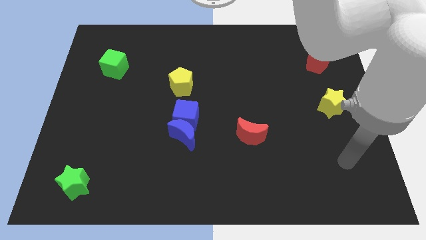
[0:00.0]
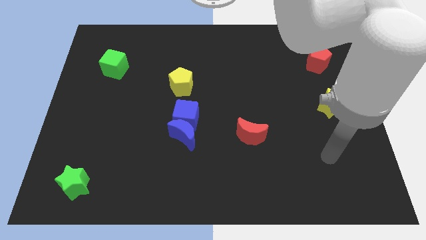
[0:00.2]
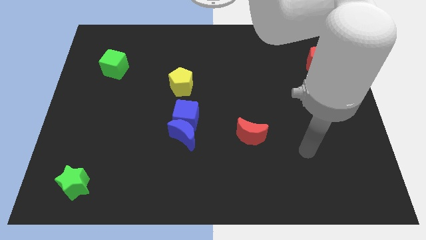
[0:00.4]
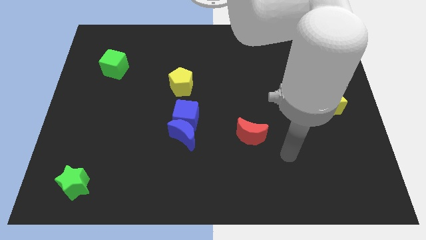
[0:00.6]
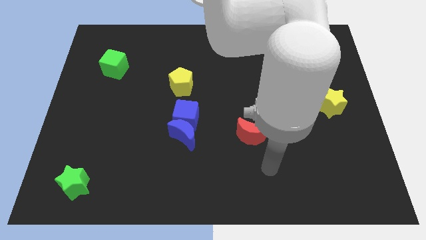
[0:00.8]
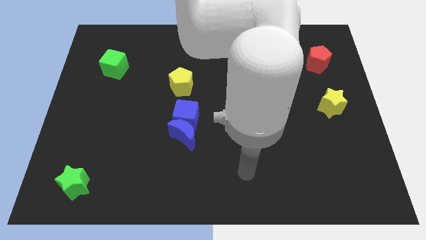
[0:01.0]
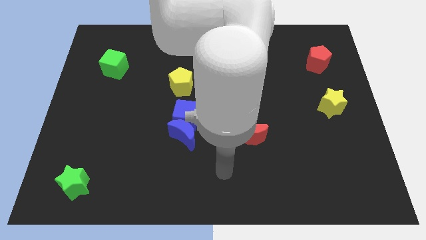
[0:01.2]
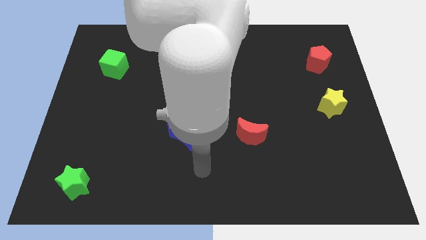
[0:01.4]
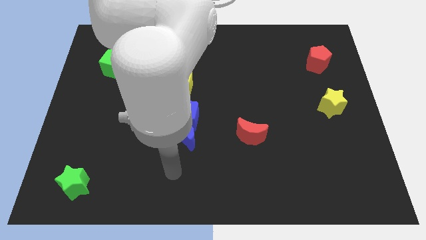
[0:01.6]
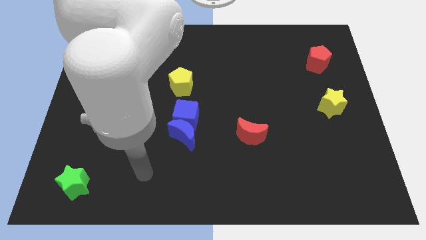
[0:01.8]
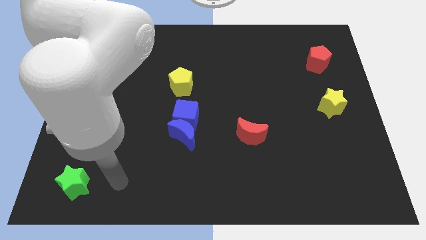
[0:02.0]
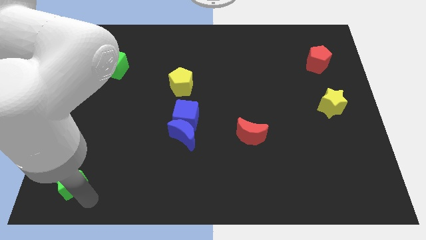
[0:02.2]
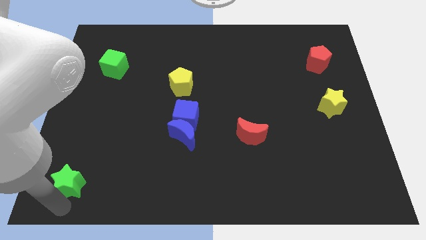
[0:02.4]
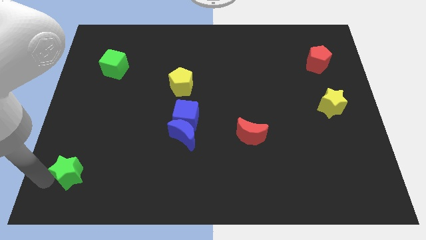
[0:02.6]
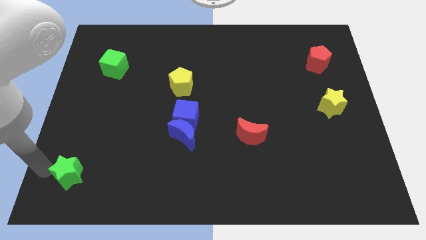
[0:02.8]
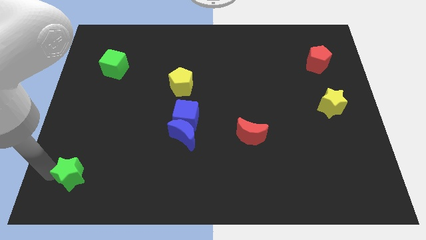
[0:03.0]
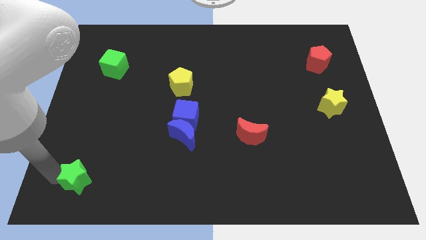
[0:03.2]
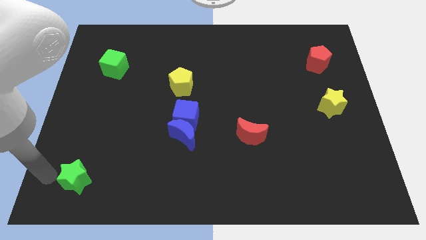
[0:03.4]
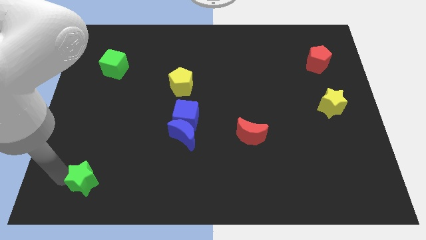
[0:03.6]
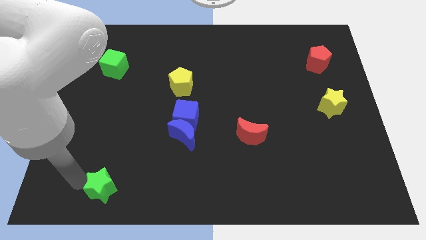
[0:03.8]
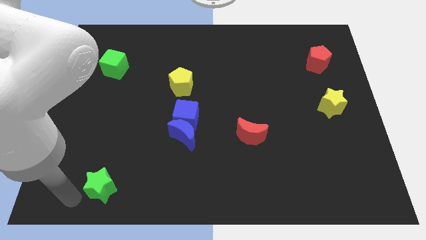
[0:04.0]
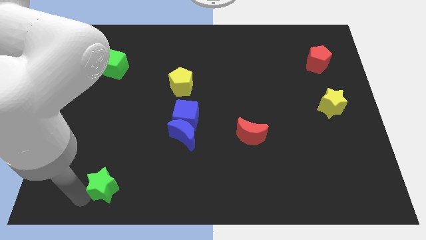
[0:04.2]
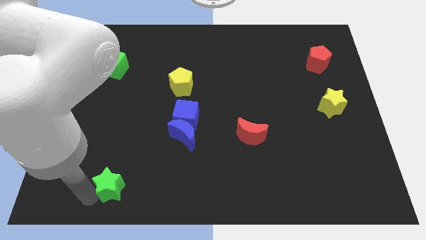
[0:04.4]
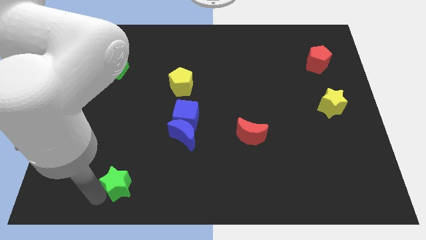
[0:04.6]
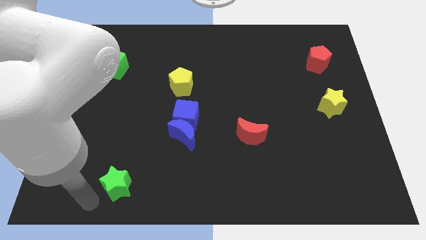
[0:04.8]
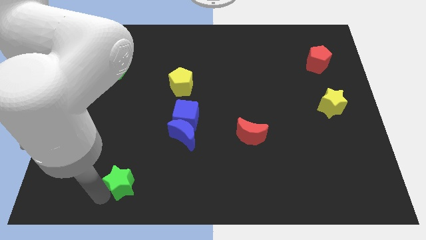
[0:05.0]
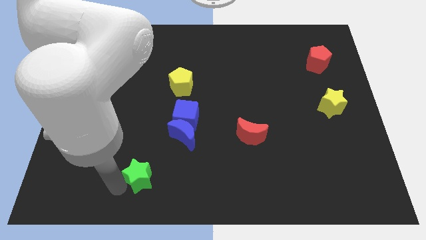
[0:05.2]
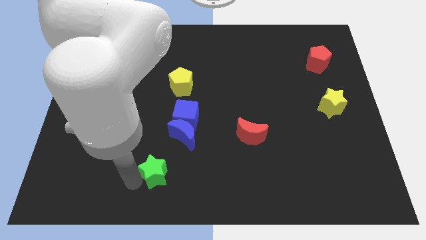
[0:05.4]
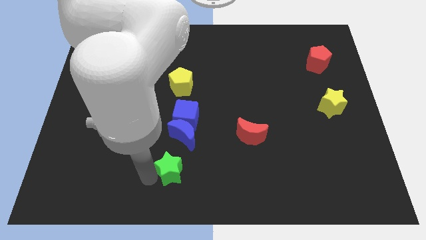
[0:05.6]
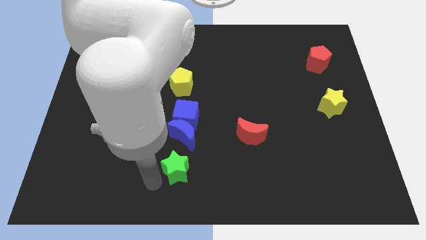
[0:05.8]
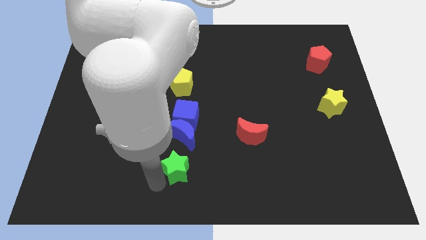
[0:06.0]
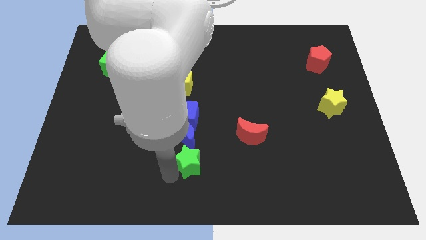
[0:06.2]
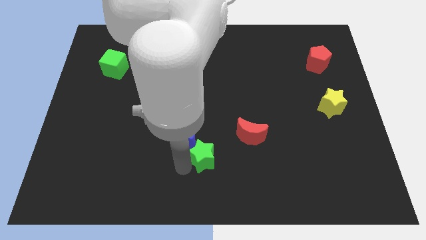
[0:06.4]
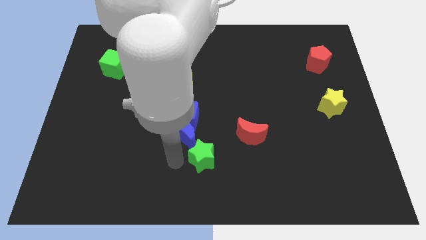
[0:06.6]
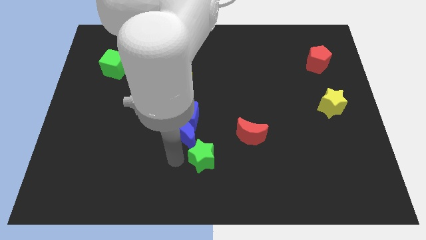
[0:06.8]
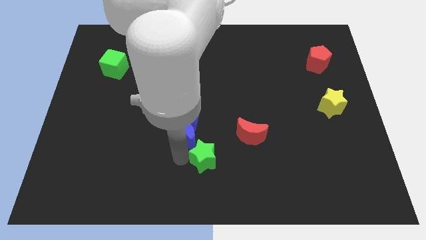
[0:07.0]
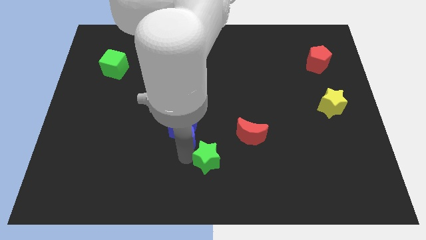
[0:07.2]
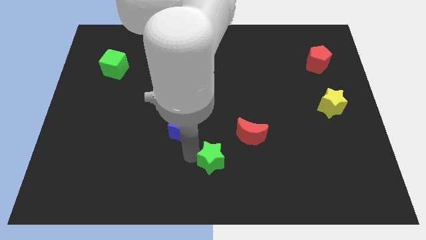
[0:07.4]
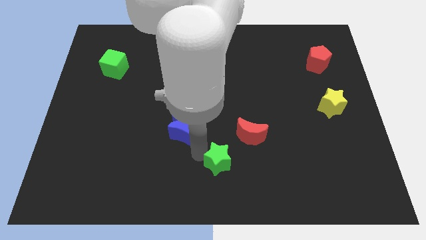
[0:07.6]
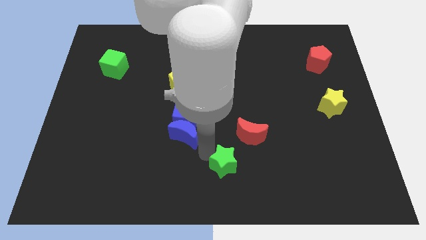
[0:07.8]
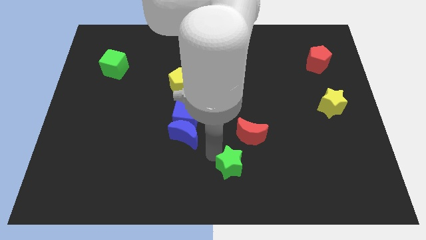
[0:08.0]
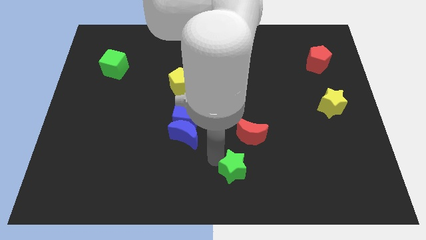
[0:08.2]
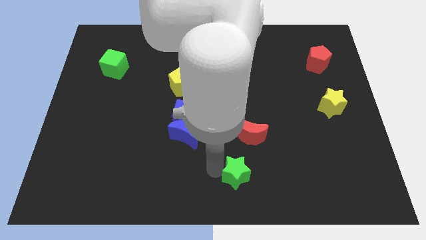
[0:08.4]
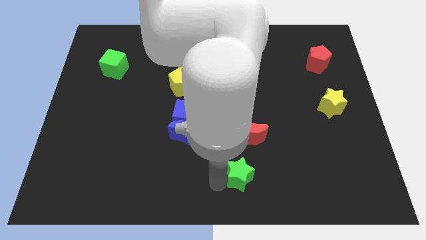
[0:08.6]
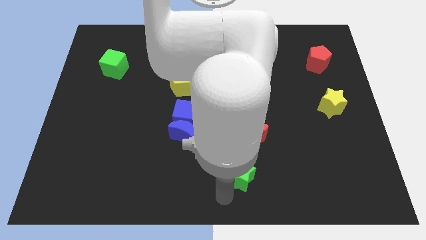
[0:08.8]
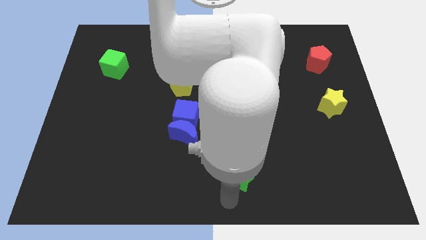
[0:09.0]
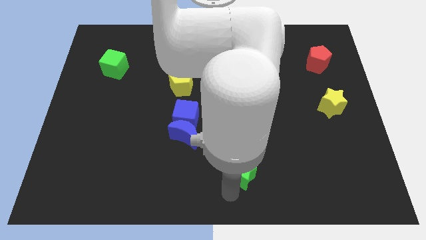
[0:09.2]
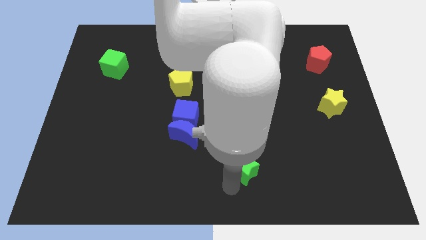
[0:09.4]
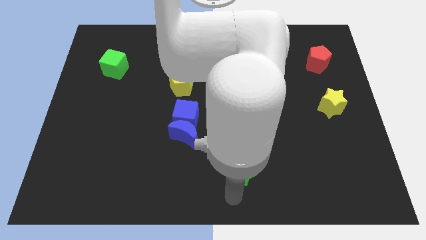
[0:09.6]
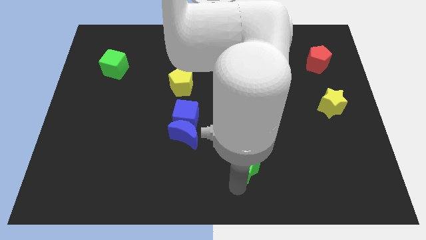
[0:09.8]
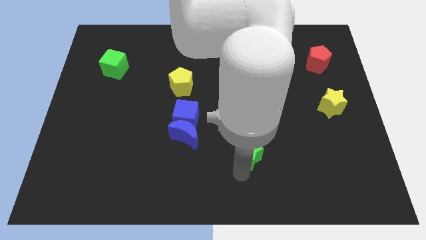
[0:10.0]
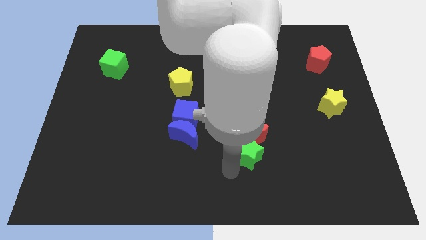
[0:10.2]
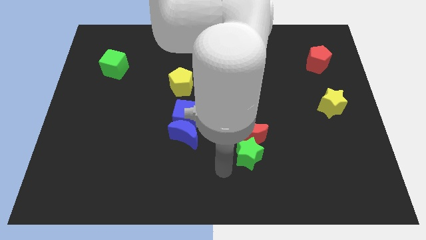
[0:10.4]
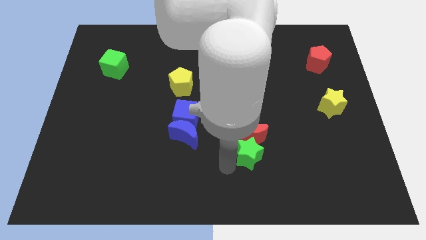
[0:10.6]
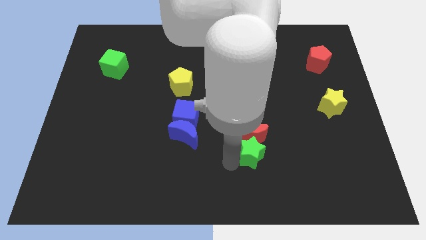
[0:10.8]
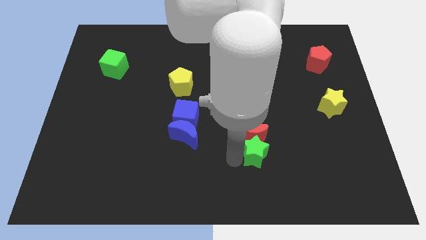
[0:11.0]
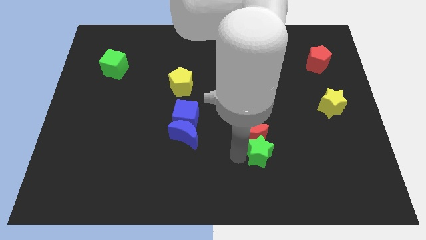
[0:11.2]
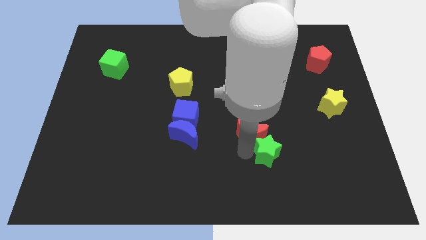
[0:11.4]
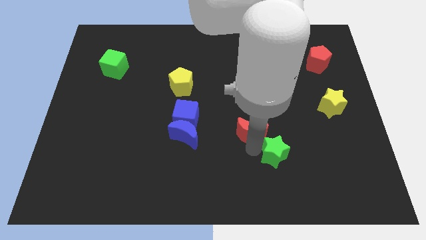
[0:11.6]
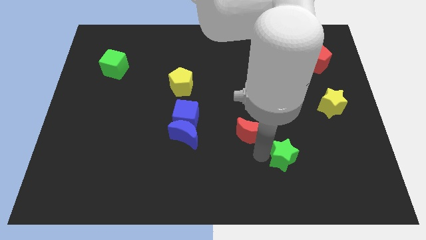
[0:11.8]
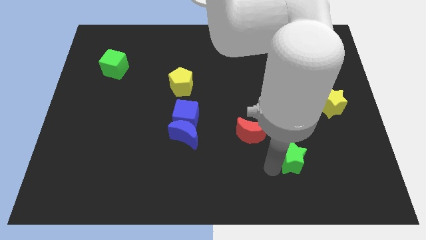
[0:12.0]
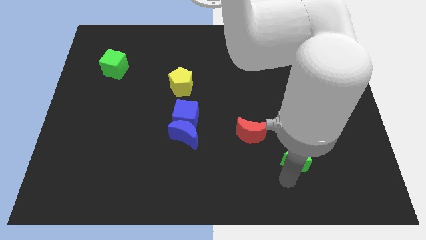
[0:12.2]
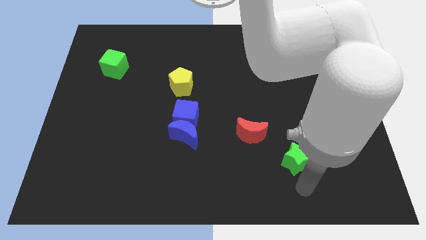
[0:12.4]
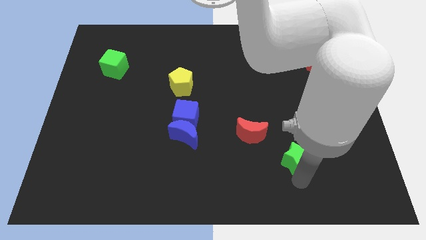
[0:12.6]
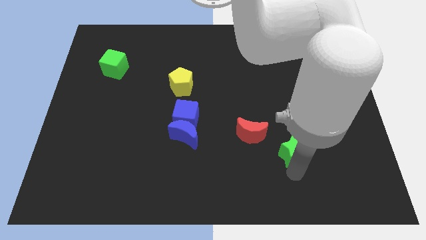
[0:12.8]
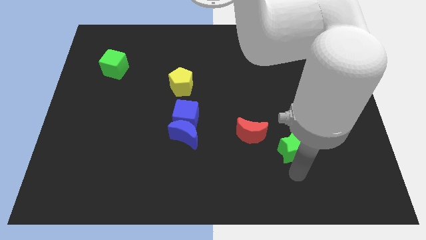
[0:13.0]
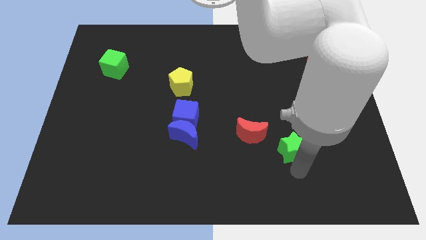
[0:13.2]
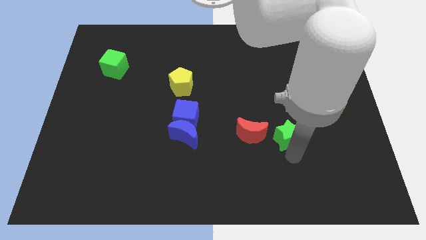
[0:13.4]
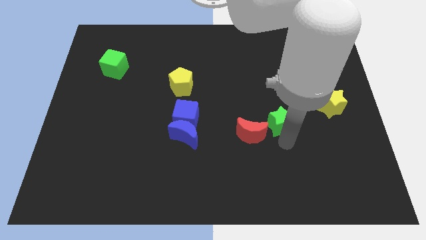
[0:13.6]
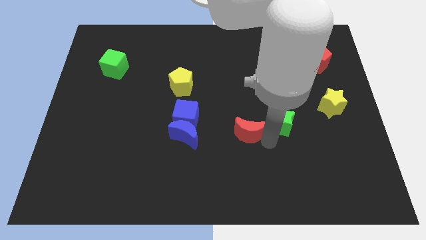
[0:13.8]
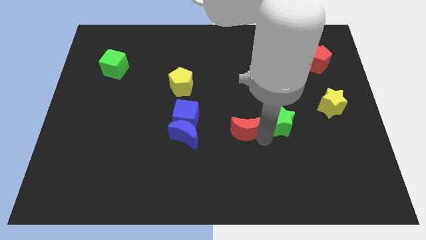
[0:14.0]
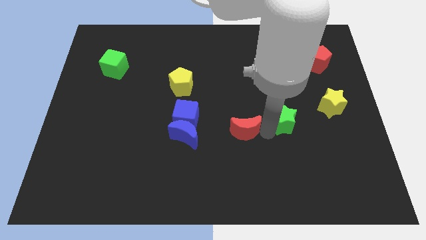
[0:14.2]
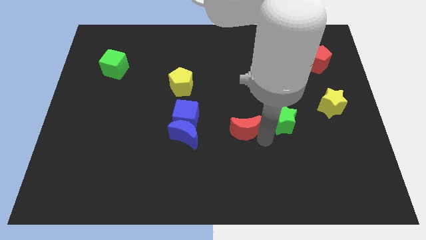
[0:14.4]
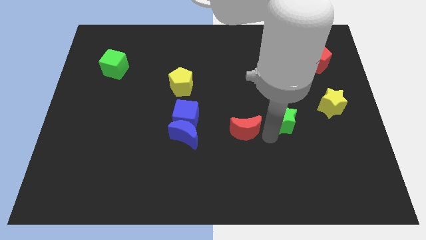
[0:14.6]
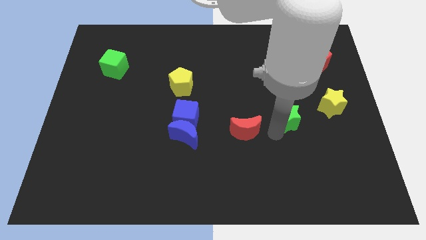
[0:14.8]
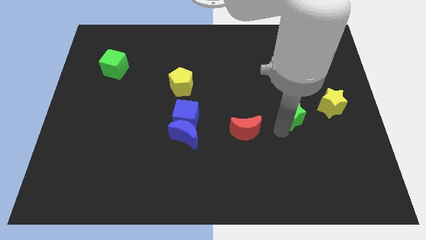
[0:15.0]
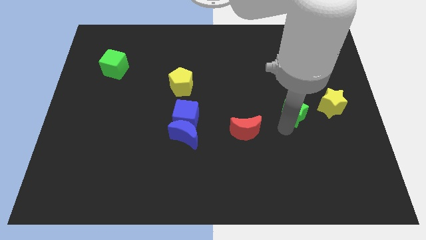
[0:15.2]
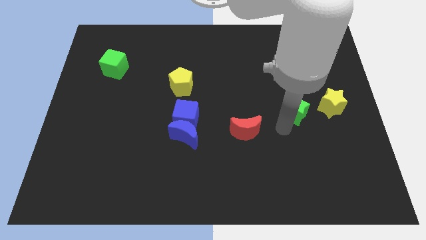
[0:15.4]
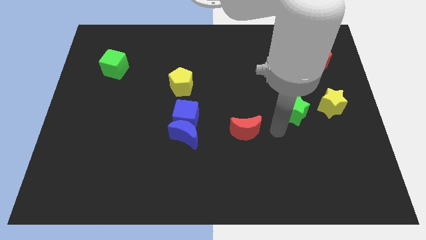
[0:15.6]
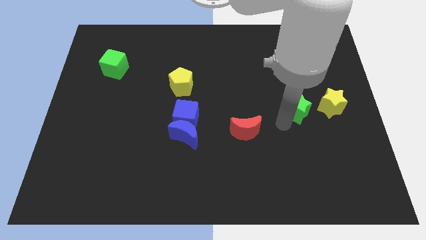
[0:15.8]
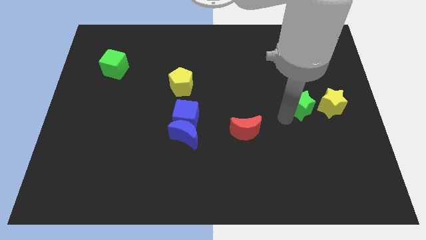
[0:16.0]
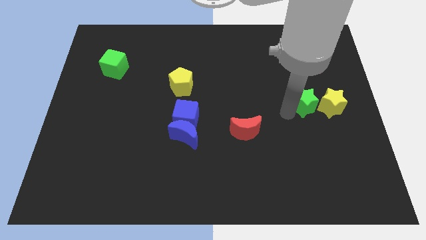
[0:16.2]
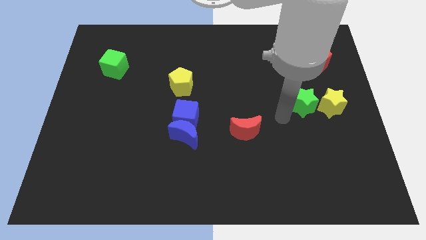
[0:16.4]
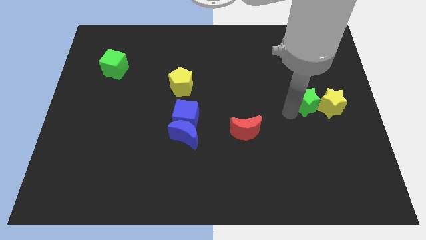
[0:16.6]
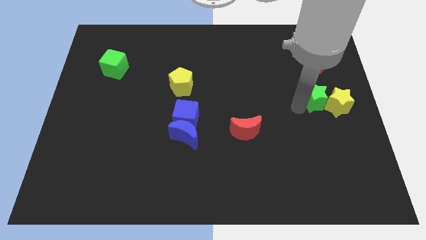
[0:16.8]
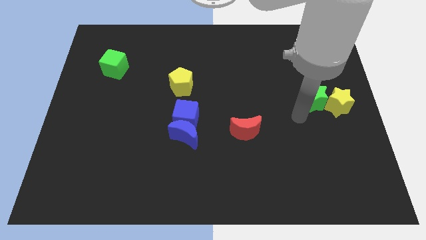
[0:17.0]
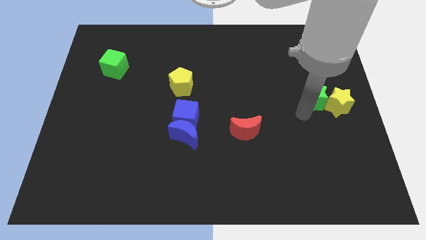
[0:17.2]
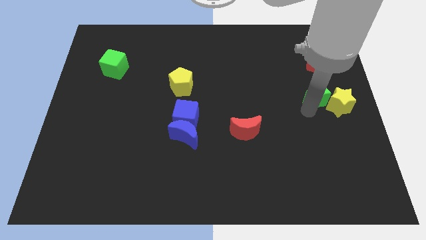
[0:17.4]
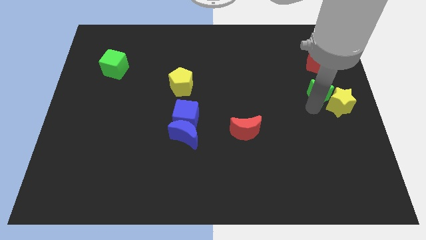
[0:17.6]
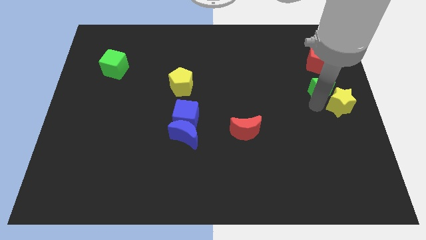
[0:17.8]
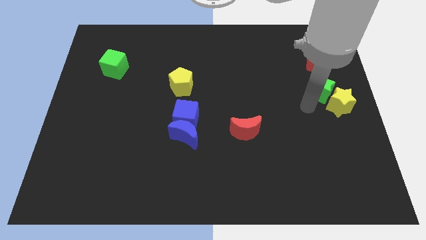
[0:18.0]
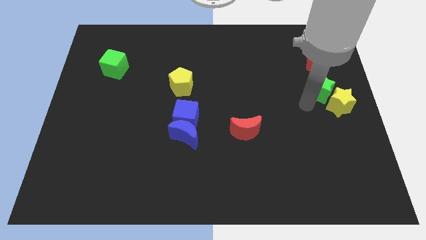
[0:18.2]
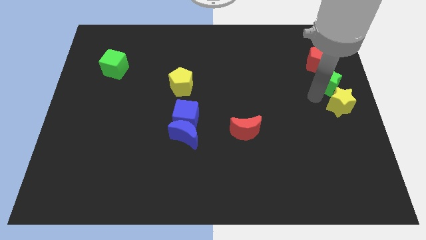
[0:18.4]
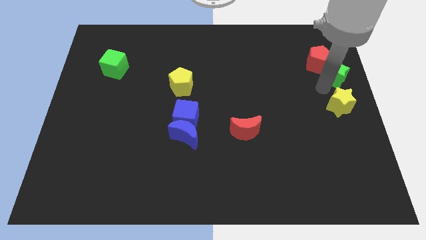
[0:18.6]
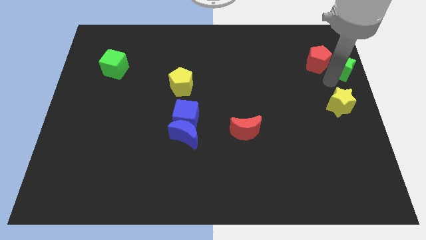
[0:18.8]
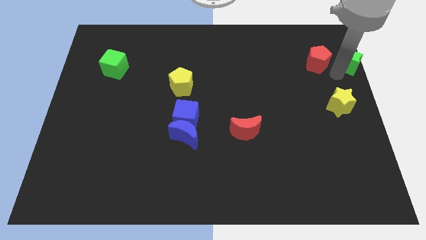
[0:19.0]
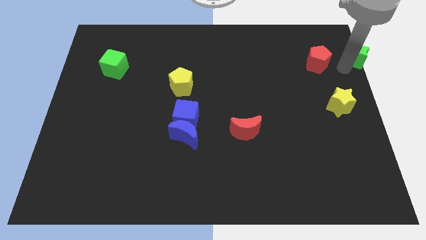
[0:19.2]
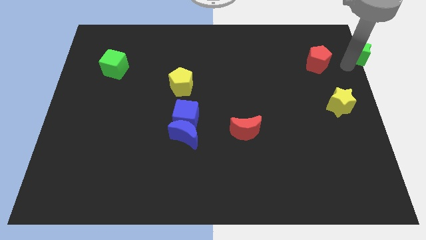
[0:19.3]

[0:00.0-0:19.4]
push the green star to the top right of the board
